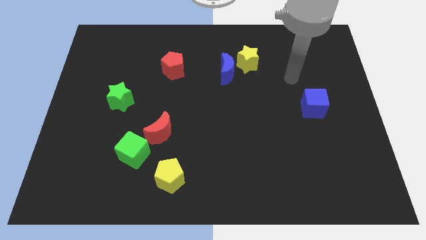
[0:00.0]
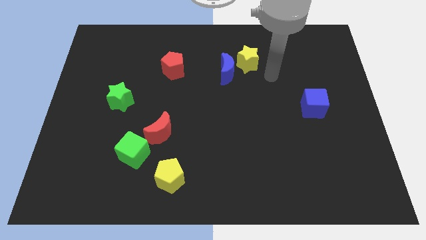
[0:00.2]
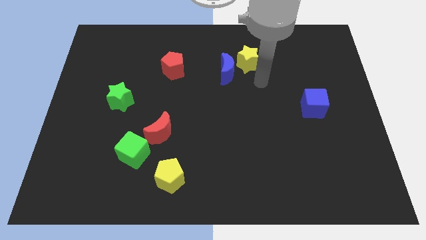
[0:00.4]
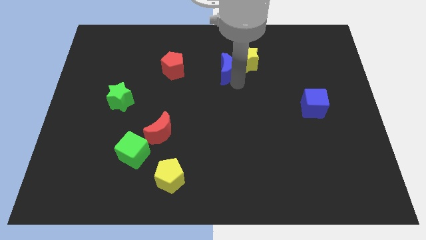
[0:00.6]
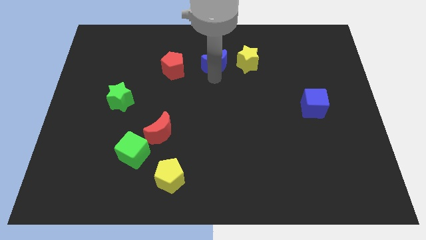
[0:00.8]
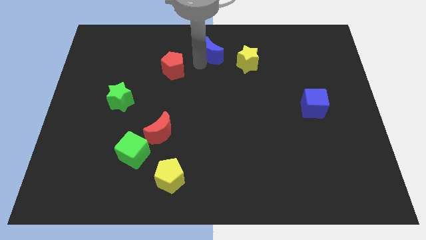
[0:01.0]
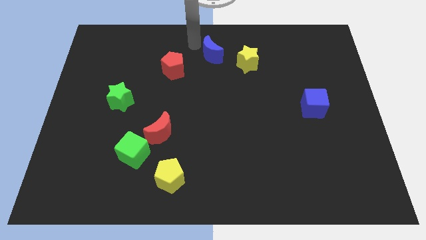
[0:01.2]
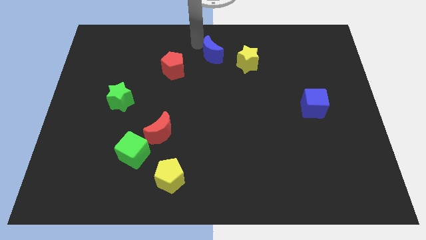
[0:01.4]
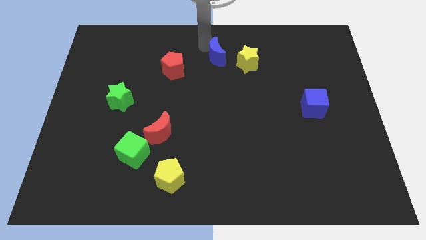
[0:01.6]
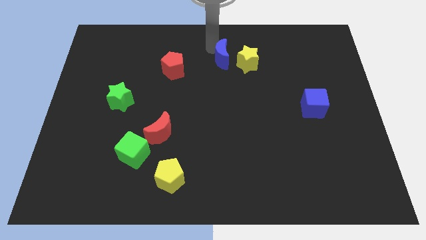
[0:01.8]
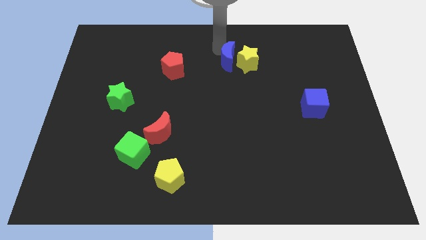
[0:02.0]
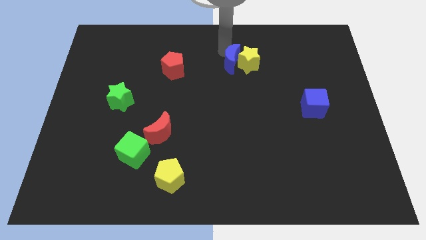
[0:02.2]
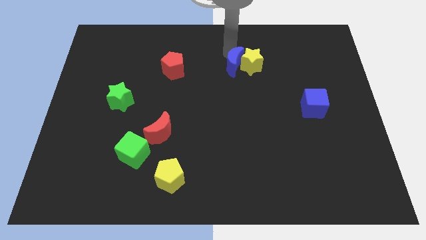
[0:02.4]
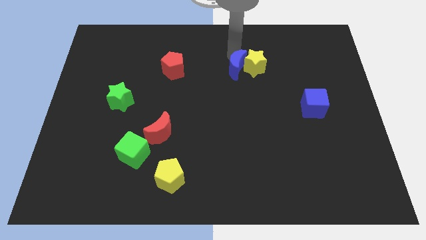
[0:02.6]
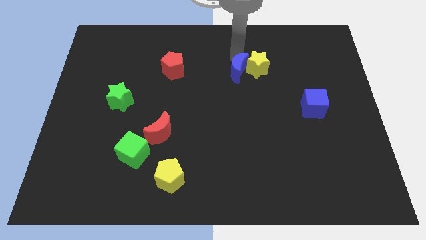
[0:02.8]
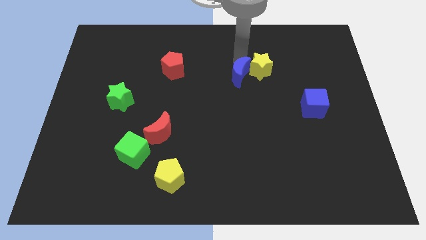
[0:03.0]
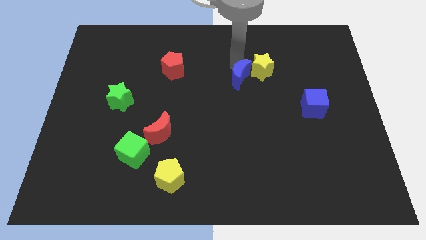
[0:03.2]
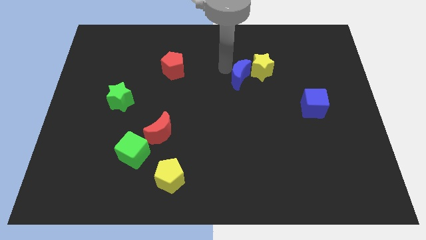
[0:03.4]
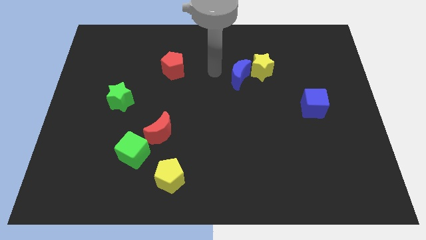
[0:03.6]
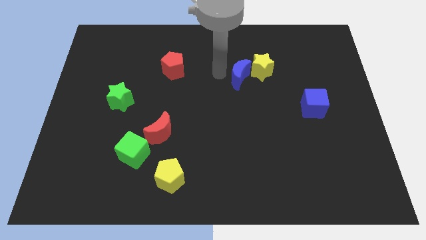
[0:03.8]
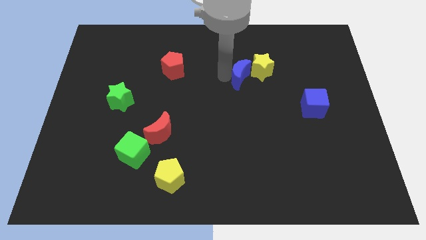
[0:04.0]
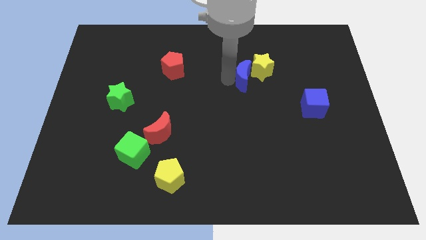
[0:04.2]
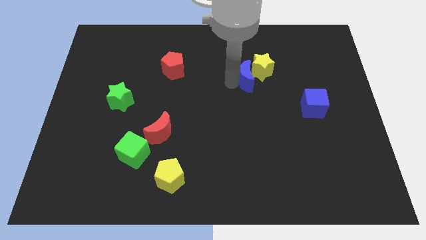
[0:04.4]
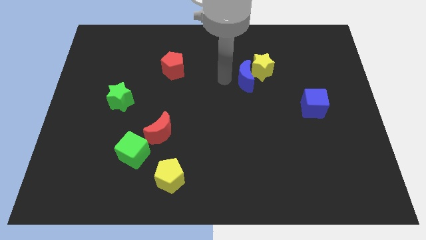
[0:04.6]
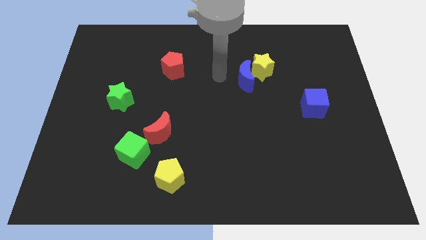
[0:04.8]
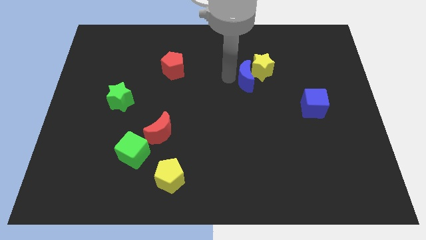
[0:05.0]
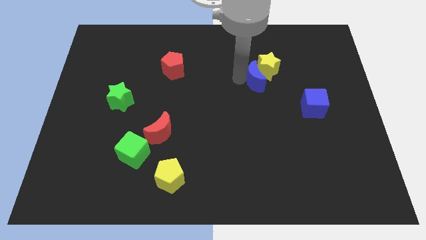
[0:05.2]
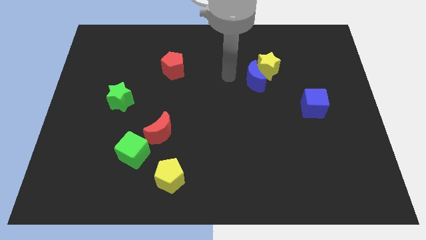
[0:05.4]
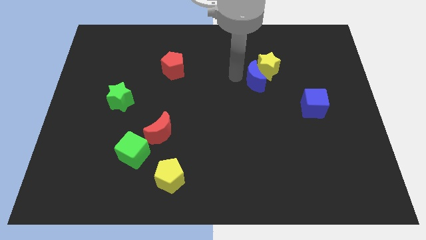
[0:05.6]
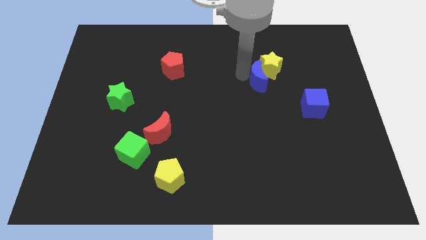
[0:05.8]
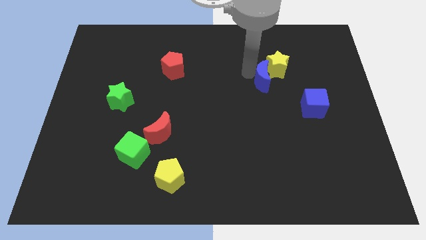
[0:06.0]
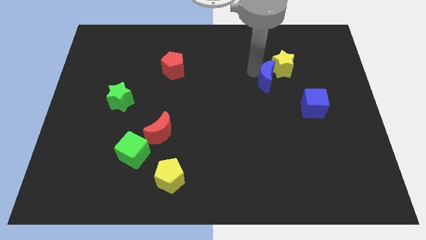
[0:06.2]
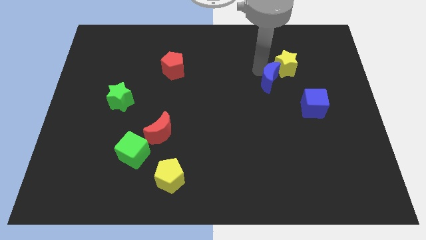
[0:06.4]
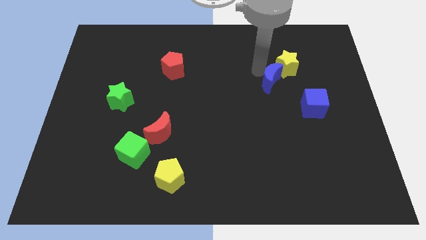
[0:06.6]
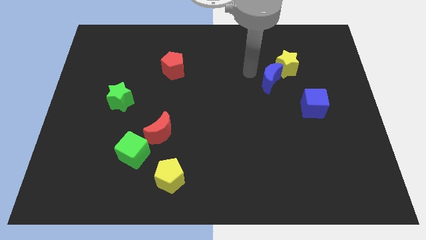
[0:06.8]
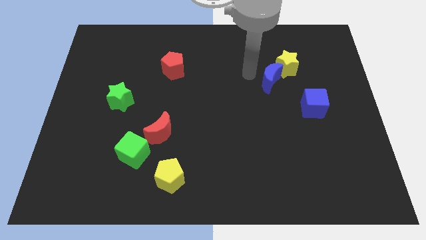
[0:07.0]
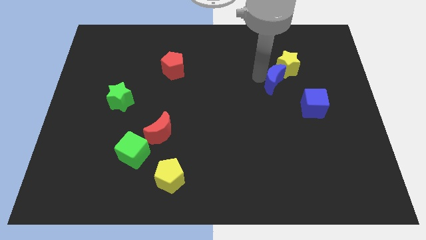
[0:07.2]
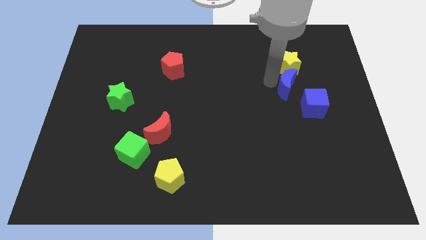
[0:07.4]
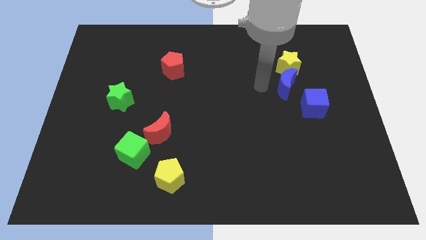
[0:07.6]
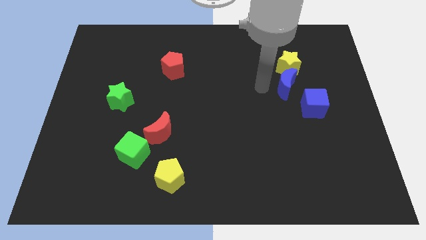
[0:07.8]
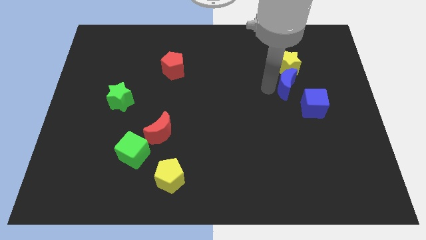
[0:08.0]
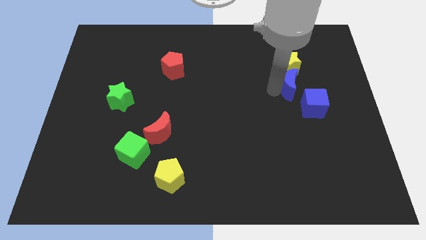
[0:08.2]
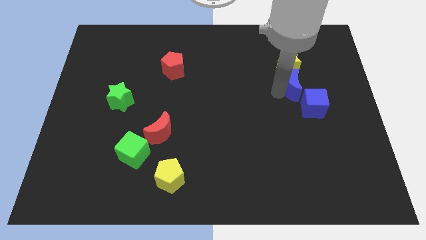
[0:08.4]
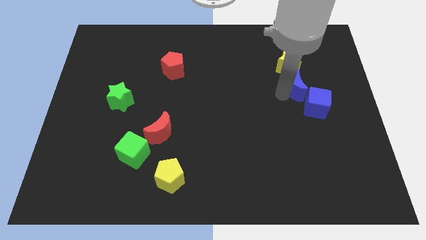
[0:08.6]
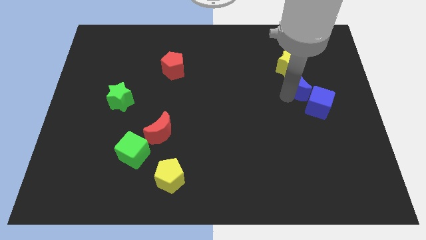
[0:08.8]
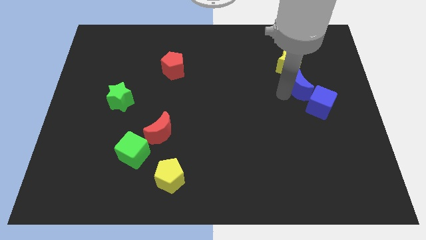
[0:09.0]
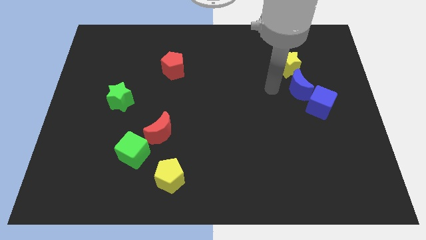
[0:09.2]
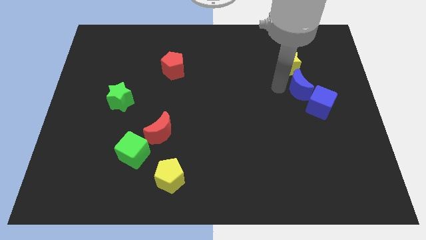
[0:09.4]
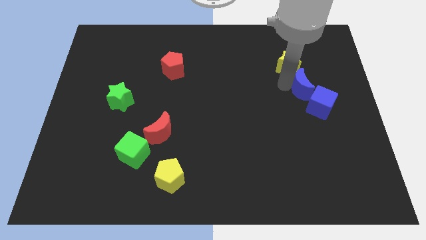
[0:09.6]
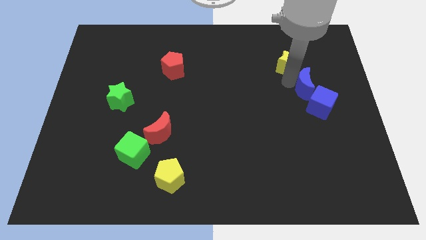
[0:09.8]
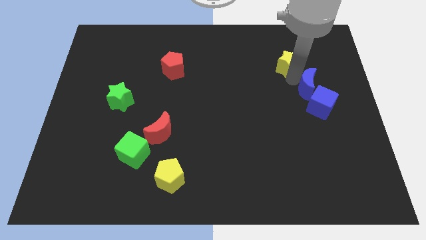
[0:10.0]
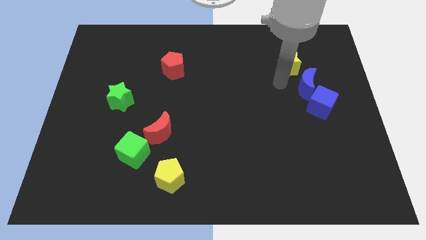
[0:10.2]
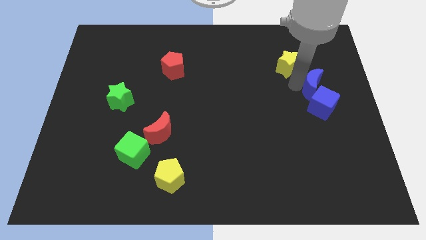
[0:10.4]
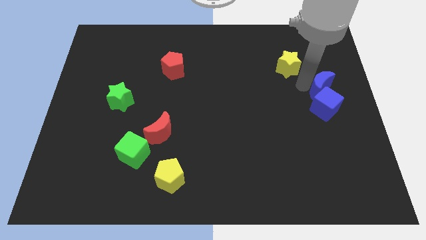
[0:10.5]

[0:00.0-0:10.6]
slide the blue moon to the top right of the blue cube

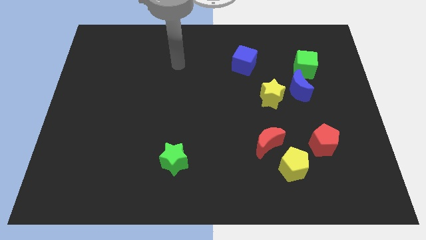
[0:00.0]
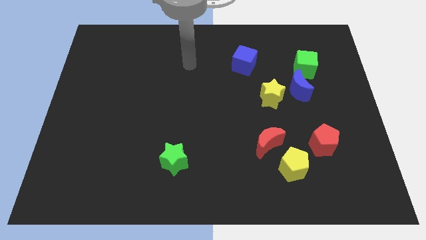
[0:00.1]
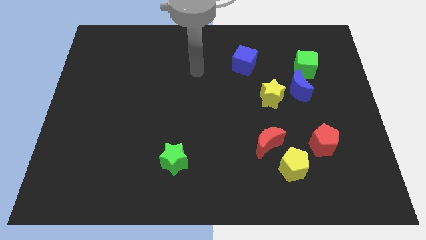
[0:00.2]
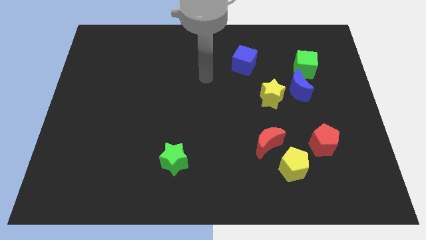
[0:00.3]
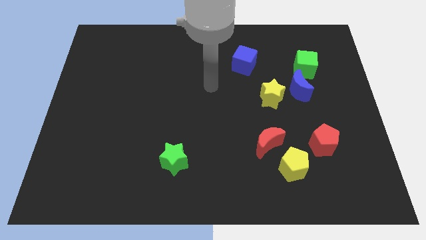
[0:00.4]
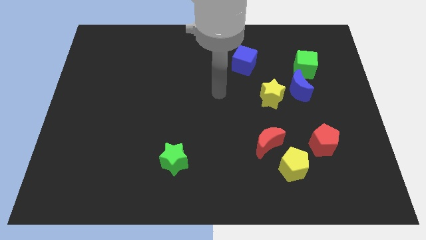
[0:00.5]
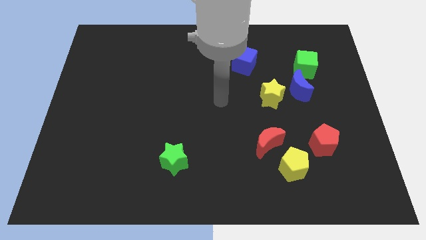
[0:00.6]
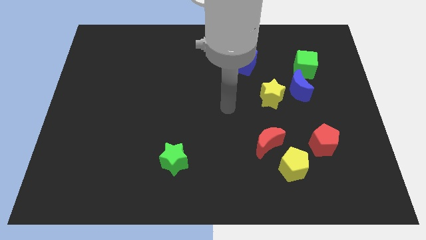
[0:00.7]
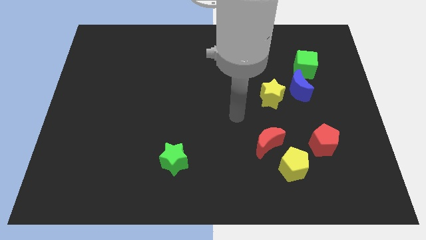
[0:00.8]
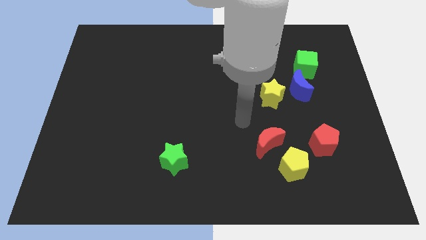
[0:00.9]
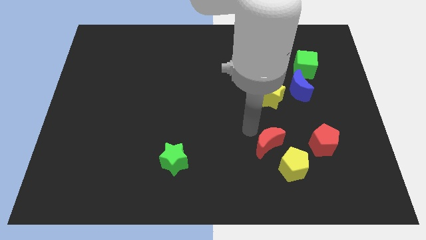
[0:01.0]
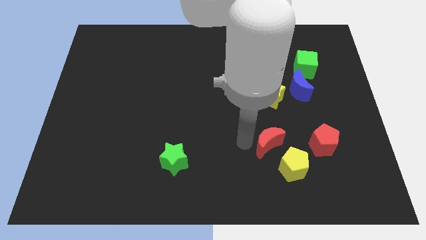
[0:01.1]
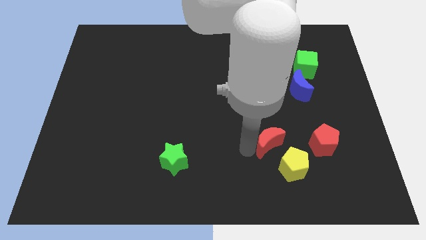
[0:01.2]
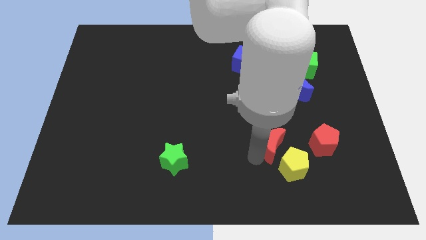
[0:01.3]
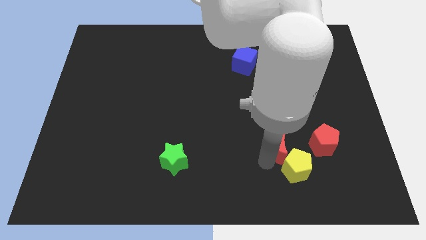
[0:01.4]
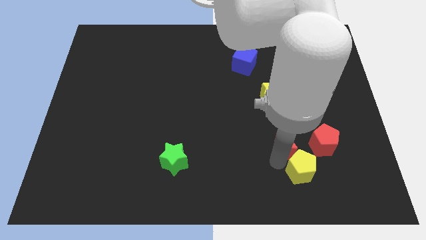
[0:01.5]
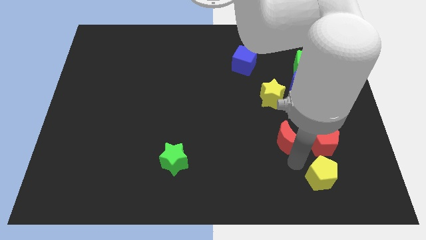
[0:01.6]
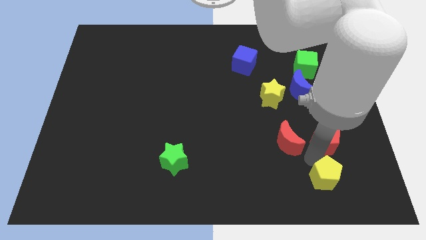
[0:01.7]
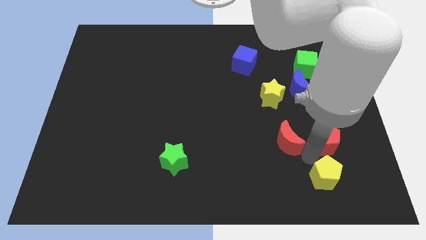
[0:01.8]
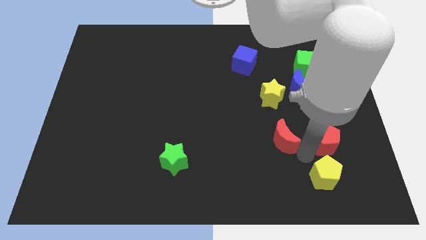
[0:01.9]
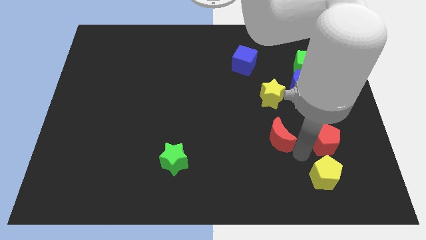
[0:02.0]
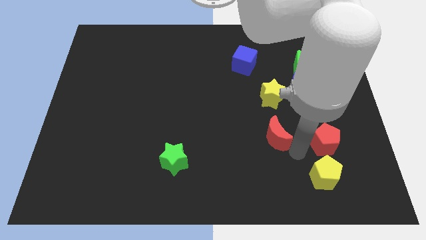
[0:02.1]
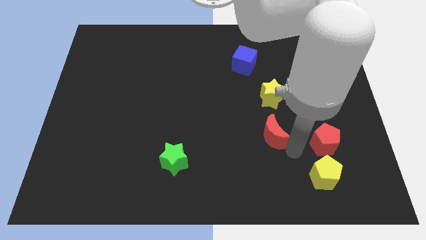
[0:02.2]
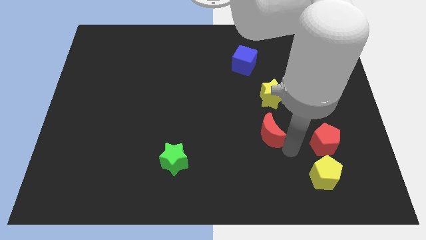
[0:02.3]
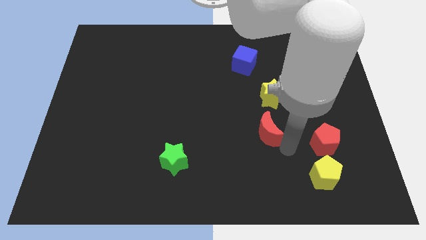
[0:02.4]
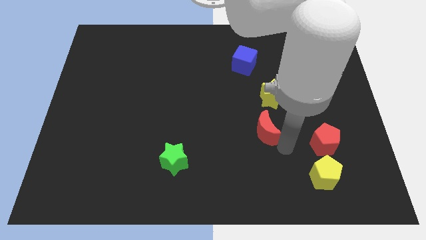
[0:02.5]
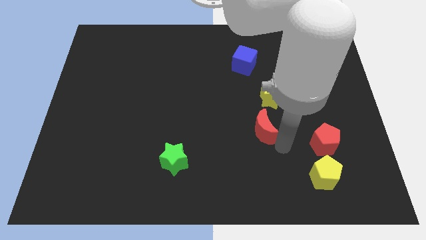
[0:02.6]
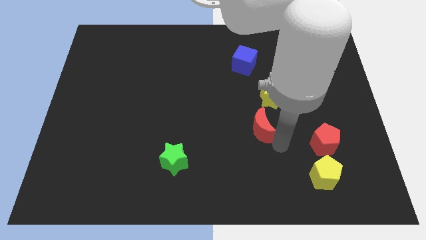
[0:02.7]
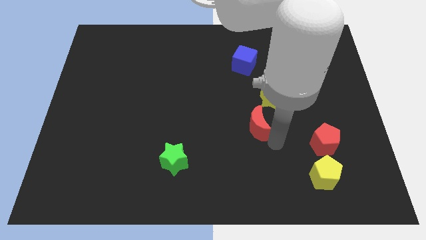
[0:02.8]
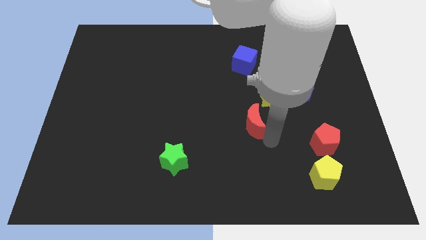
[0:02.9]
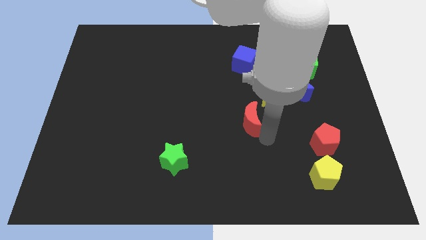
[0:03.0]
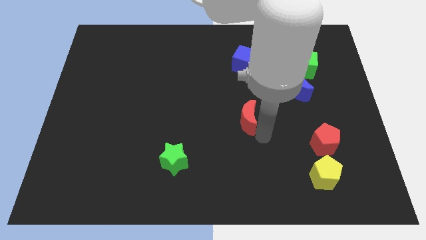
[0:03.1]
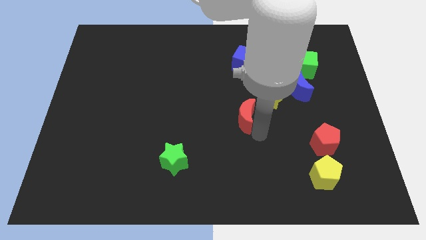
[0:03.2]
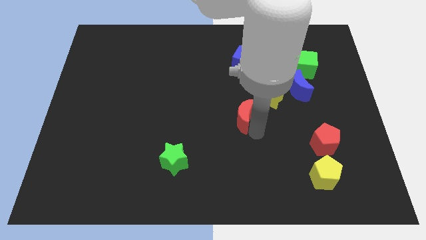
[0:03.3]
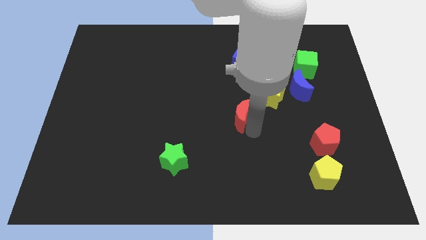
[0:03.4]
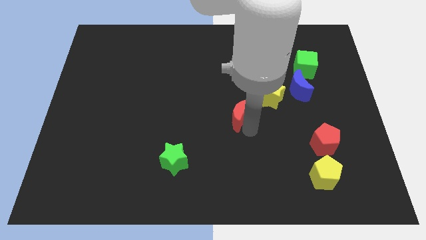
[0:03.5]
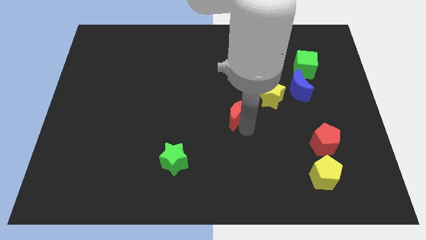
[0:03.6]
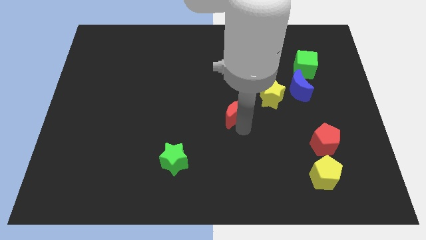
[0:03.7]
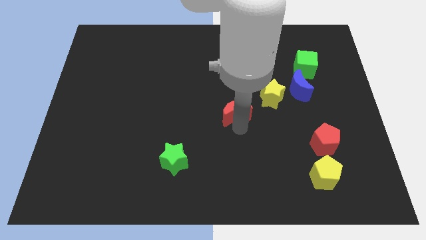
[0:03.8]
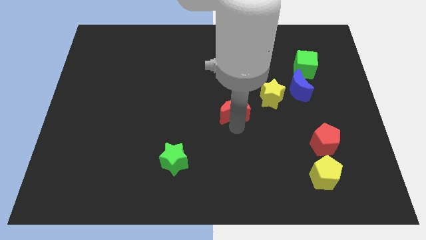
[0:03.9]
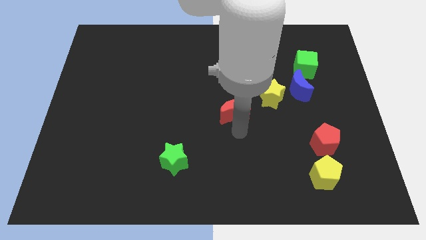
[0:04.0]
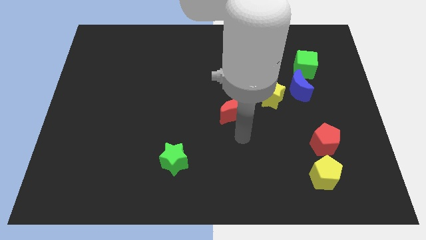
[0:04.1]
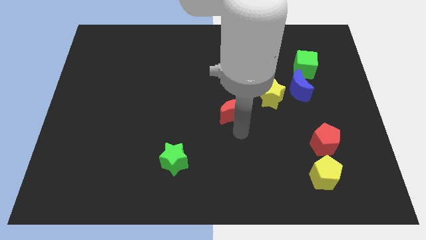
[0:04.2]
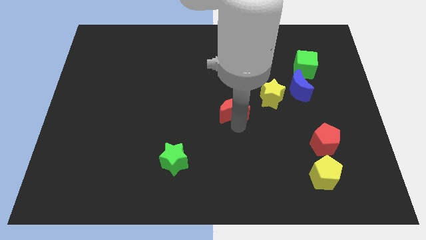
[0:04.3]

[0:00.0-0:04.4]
put the red moon to the left side of the yellow star
